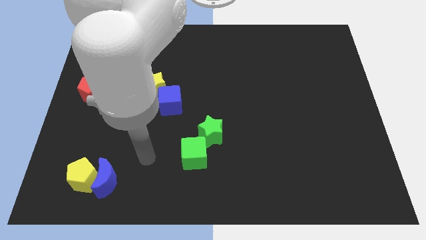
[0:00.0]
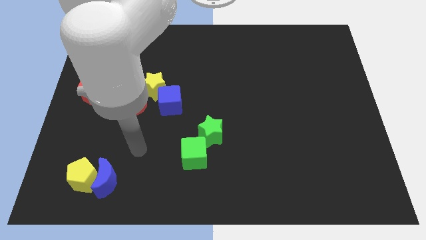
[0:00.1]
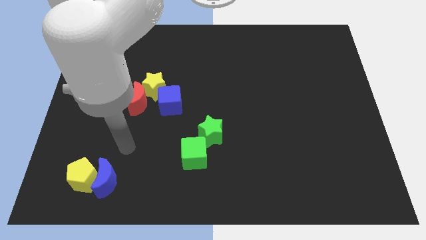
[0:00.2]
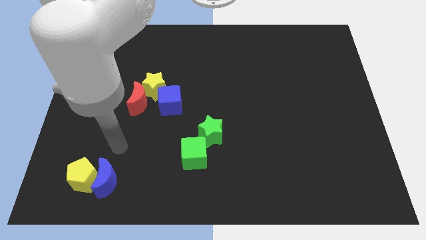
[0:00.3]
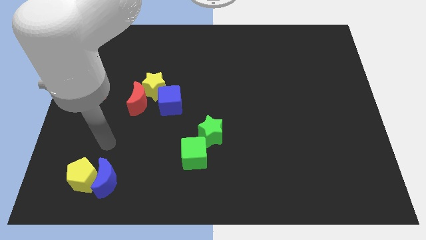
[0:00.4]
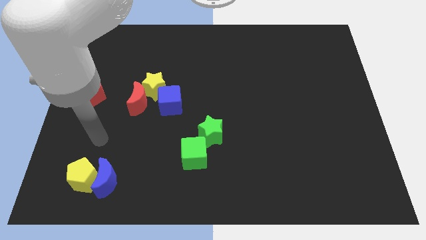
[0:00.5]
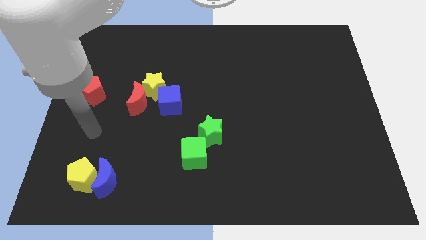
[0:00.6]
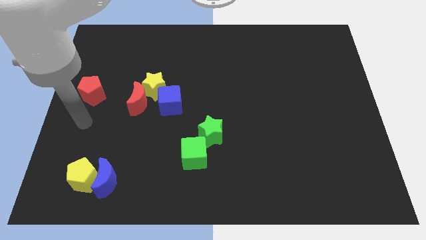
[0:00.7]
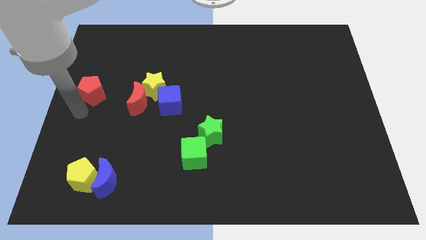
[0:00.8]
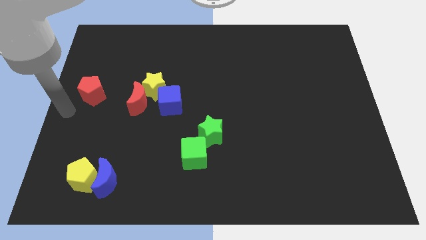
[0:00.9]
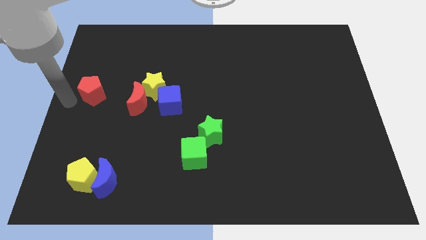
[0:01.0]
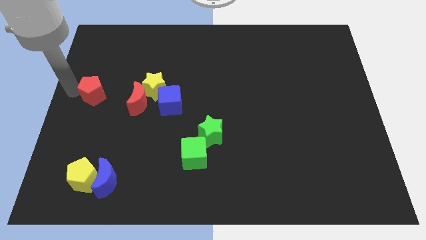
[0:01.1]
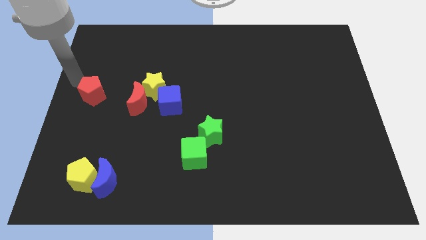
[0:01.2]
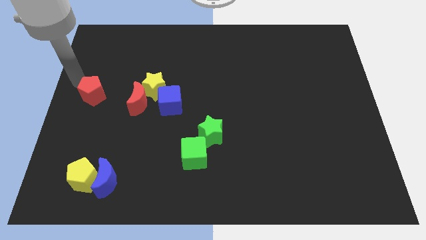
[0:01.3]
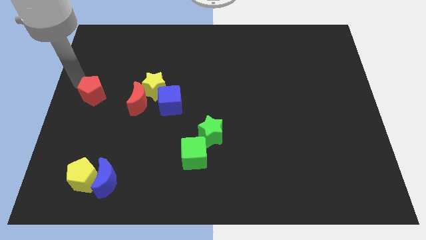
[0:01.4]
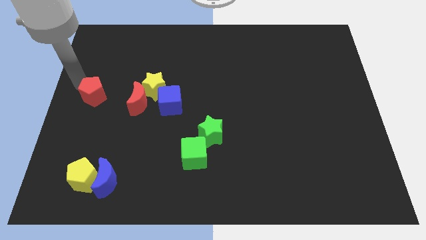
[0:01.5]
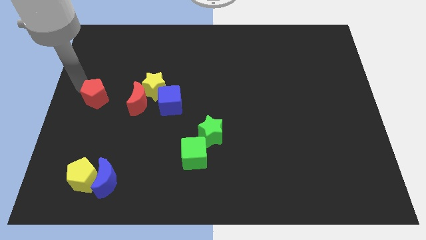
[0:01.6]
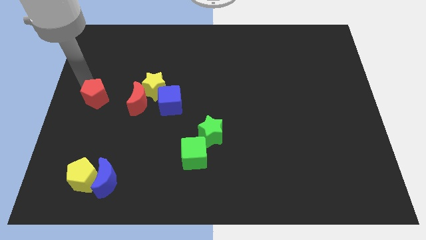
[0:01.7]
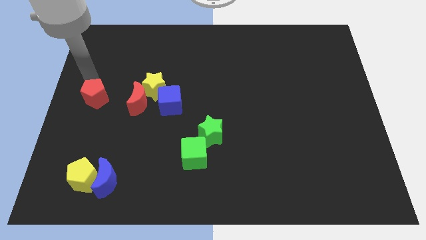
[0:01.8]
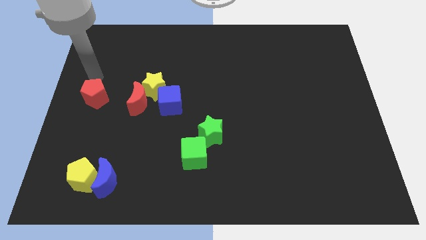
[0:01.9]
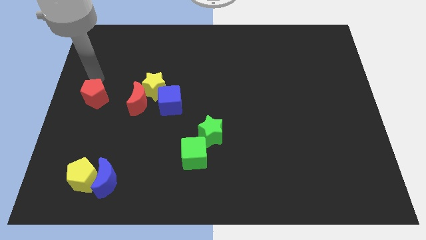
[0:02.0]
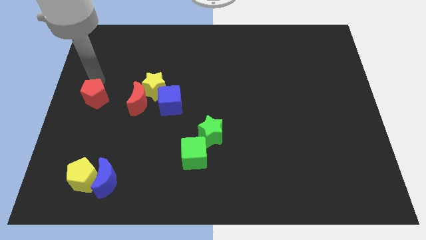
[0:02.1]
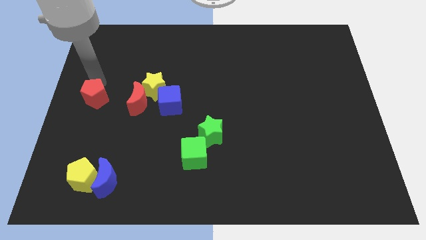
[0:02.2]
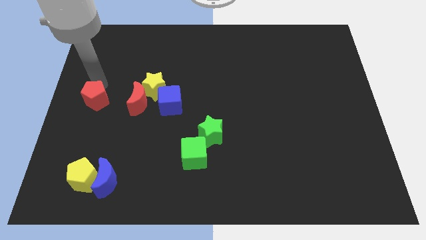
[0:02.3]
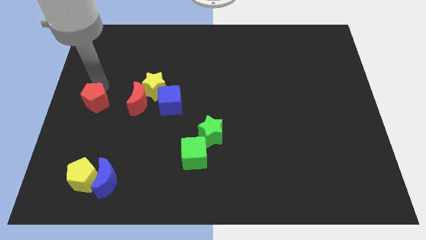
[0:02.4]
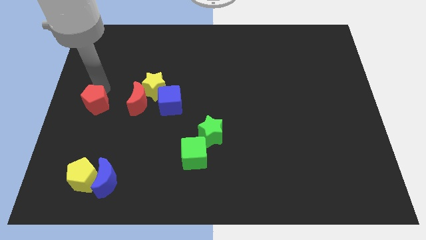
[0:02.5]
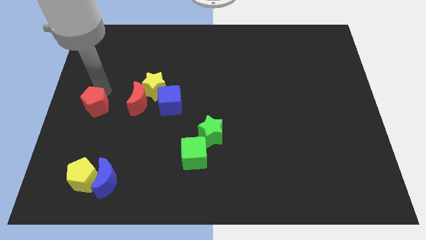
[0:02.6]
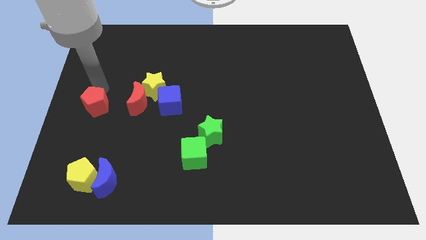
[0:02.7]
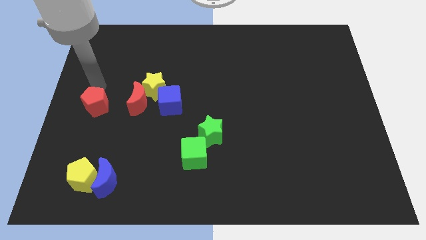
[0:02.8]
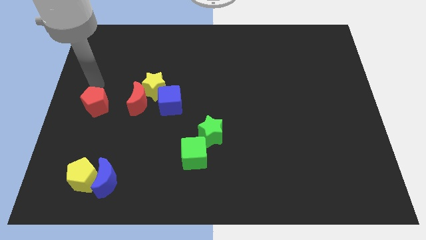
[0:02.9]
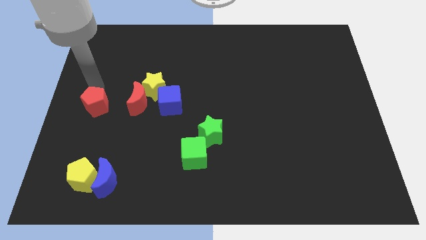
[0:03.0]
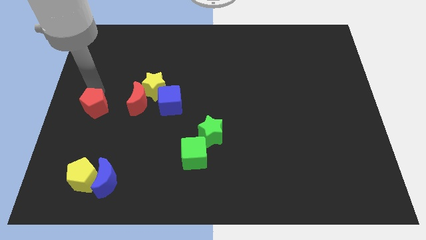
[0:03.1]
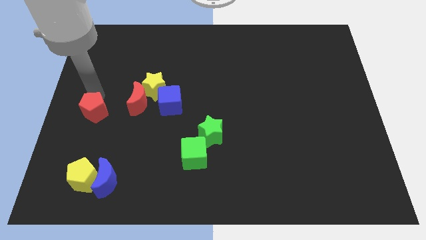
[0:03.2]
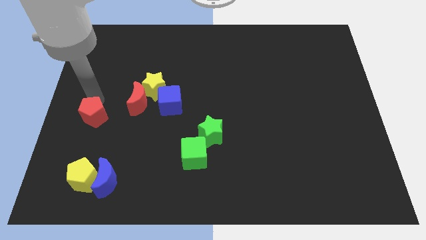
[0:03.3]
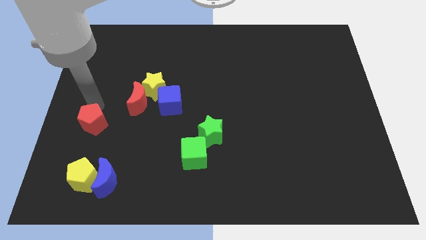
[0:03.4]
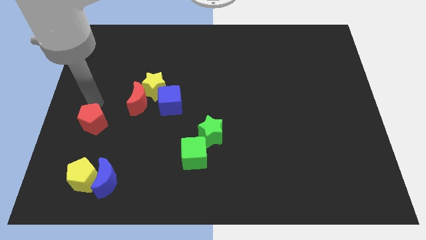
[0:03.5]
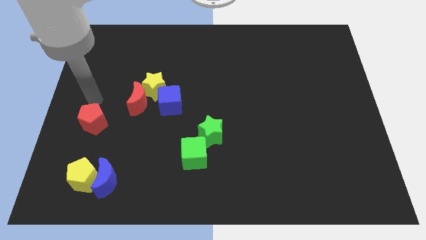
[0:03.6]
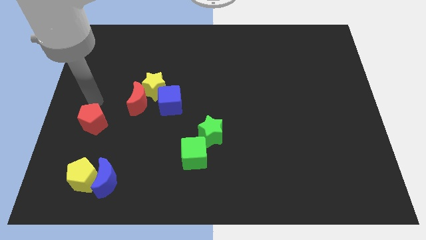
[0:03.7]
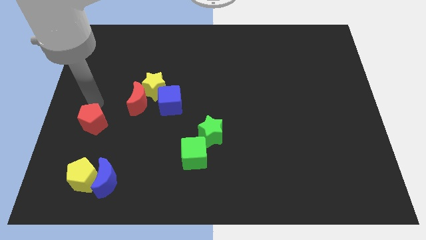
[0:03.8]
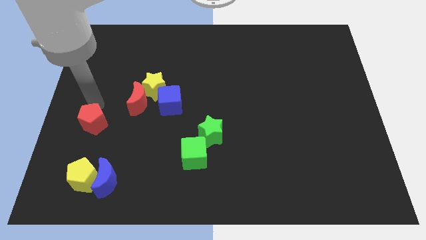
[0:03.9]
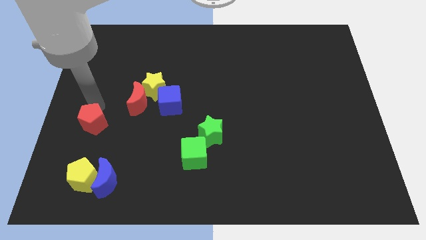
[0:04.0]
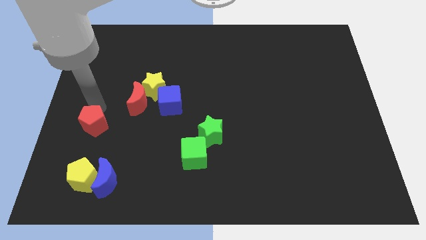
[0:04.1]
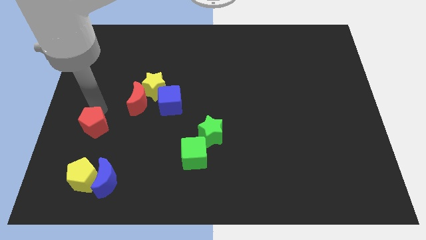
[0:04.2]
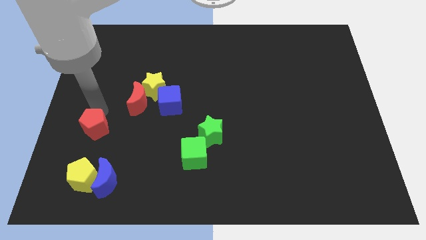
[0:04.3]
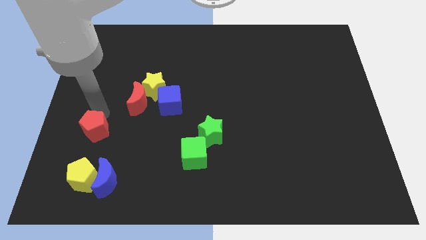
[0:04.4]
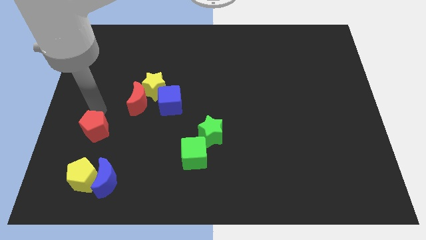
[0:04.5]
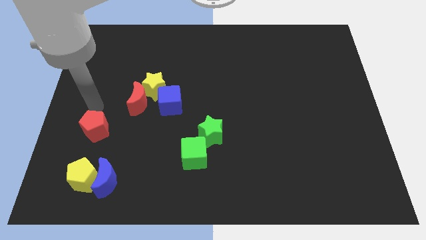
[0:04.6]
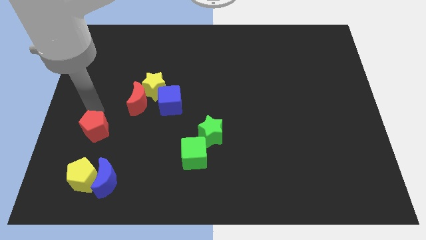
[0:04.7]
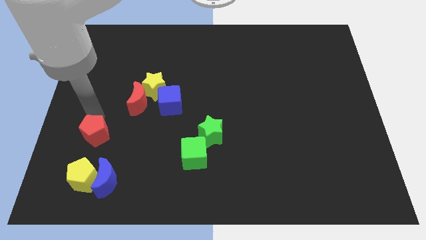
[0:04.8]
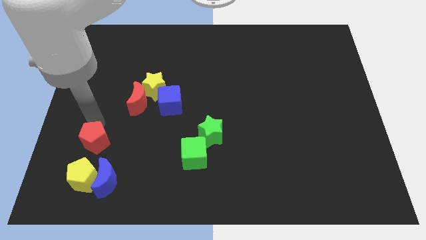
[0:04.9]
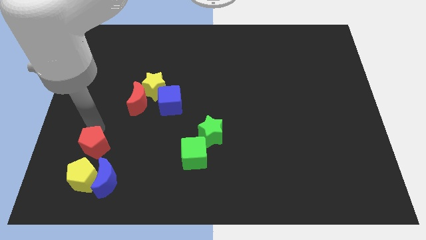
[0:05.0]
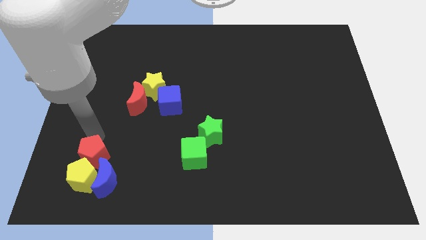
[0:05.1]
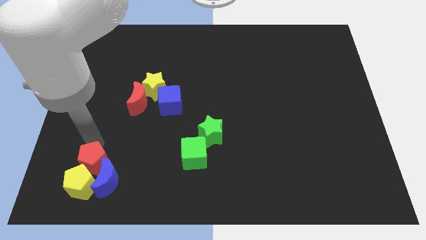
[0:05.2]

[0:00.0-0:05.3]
put the red pentagon close to the blue moon

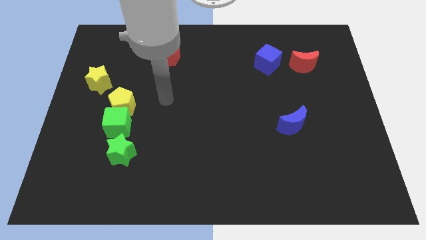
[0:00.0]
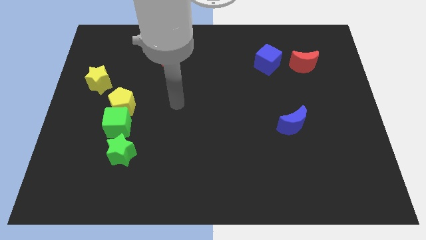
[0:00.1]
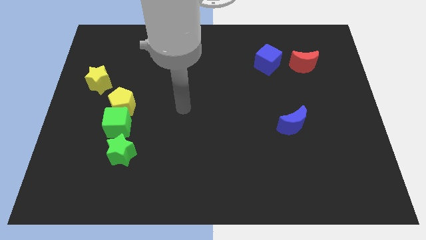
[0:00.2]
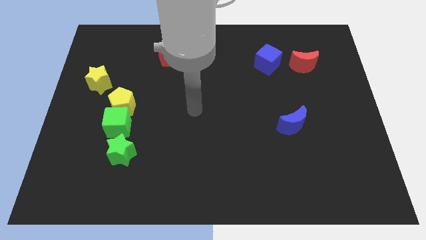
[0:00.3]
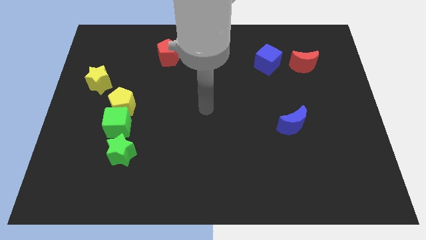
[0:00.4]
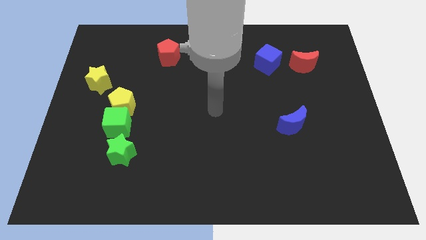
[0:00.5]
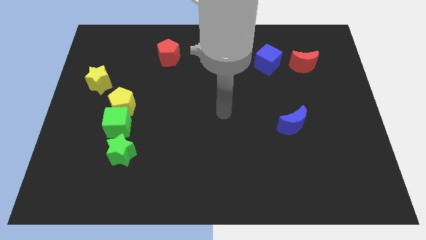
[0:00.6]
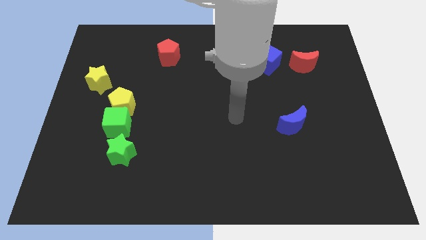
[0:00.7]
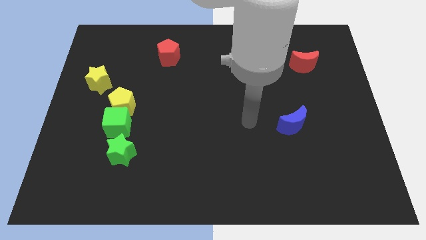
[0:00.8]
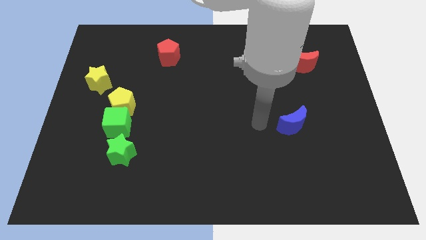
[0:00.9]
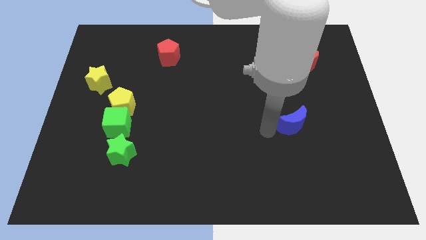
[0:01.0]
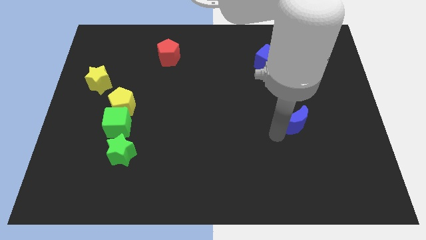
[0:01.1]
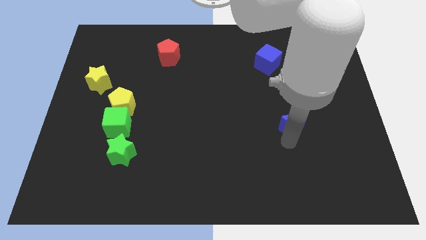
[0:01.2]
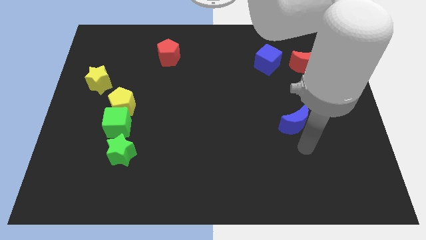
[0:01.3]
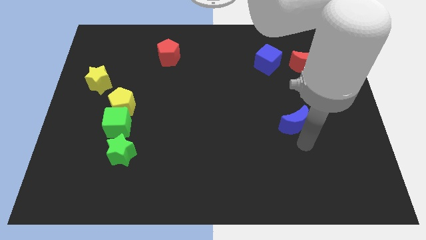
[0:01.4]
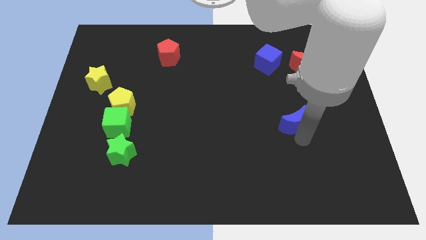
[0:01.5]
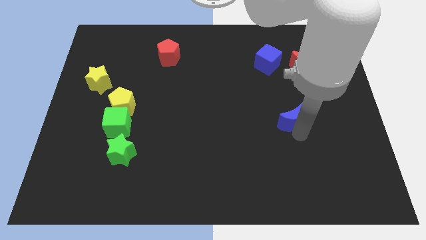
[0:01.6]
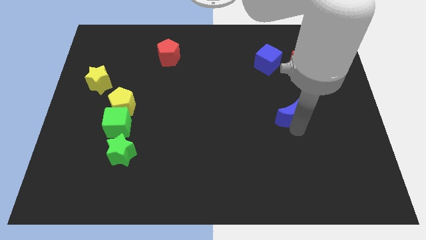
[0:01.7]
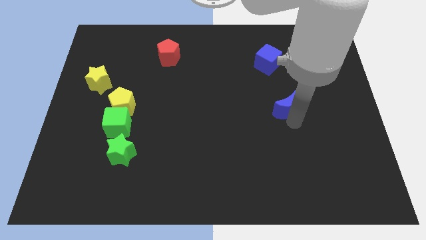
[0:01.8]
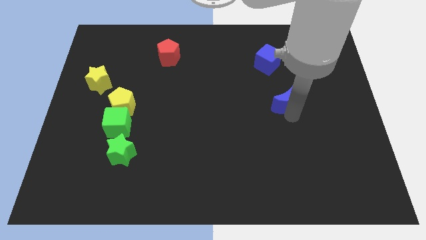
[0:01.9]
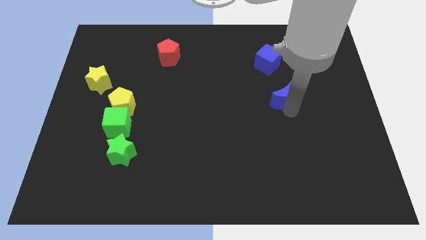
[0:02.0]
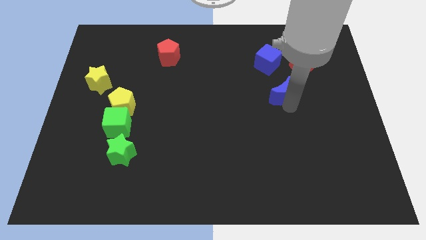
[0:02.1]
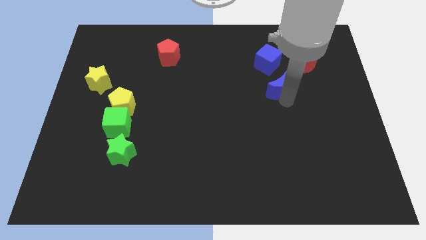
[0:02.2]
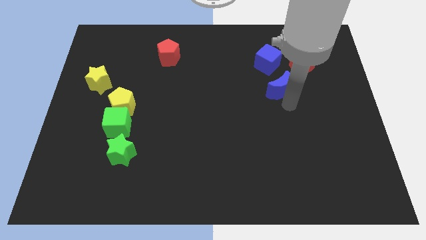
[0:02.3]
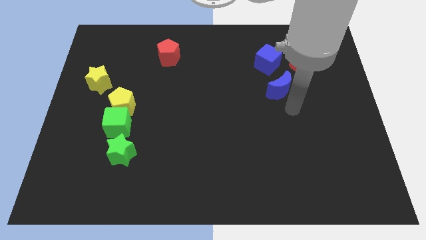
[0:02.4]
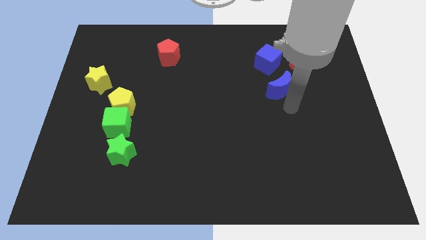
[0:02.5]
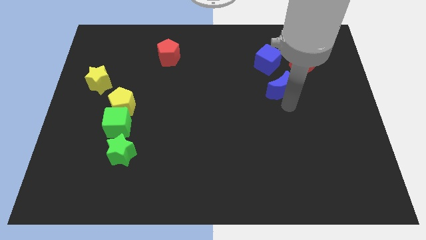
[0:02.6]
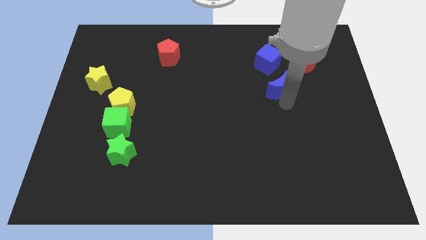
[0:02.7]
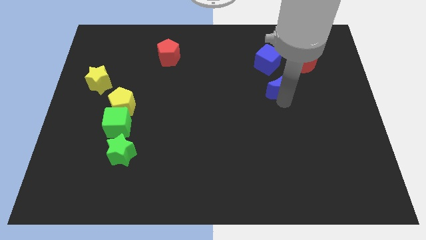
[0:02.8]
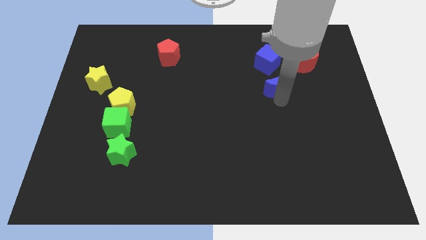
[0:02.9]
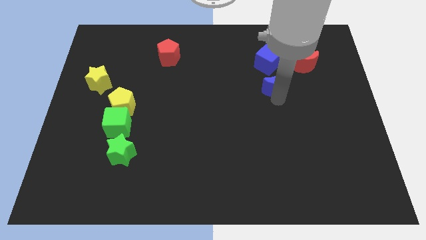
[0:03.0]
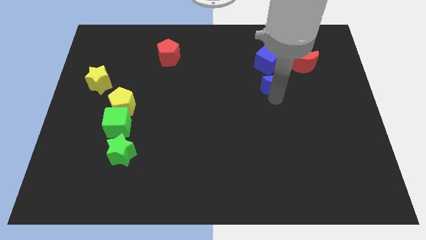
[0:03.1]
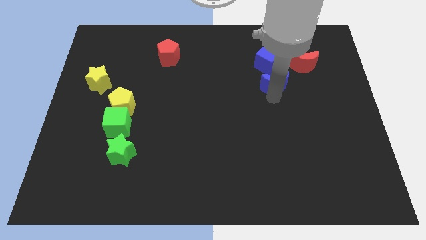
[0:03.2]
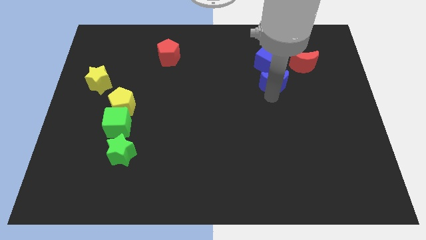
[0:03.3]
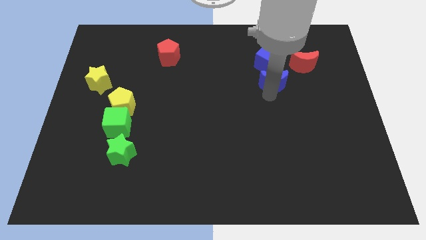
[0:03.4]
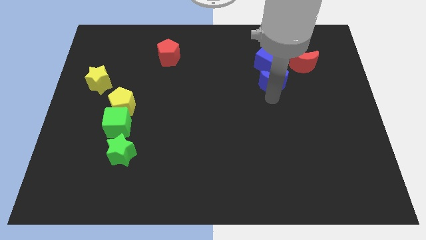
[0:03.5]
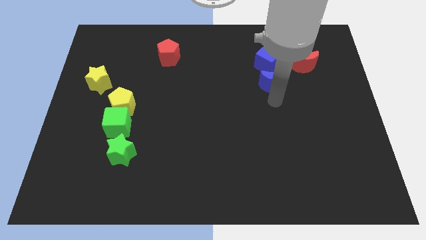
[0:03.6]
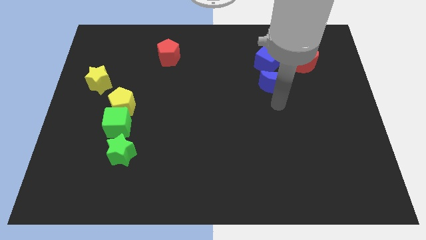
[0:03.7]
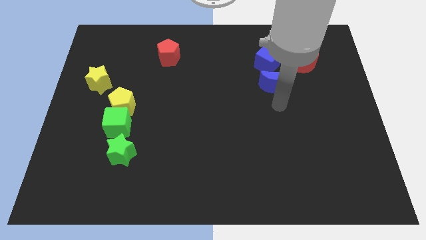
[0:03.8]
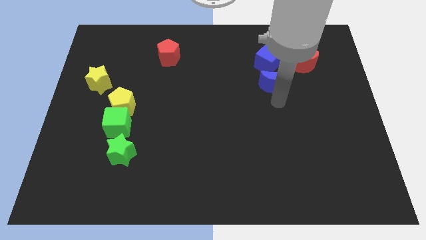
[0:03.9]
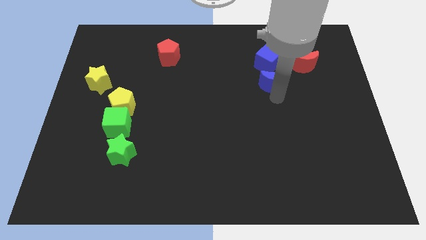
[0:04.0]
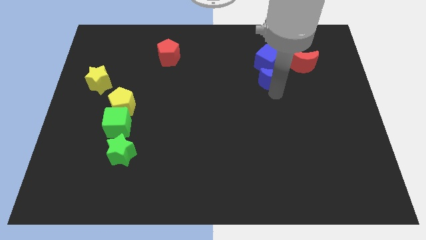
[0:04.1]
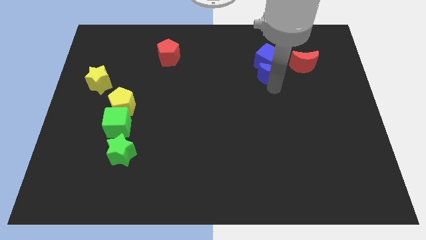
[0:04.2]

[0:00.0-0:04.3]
push the blue moon close to the blue cube
